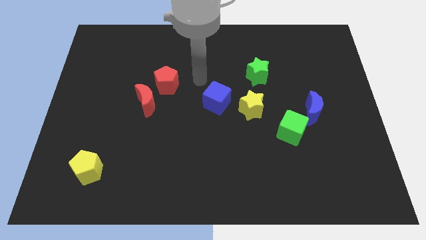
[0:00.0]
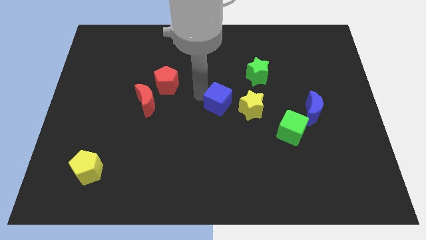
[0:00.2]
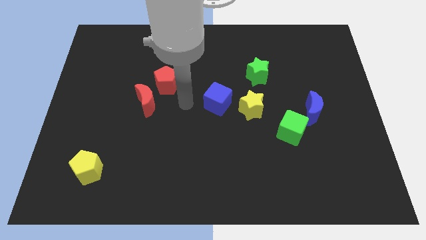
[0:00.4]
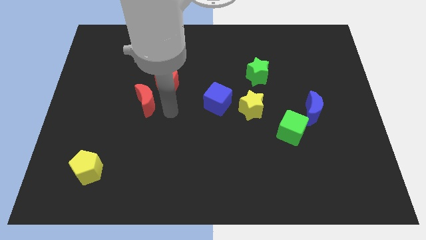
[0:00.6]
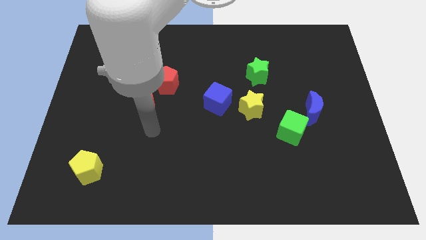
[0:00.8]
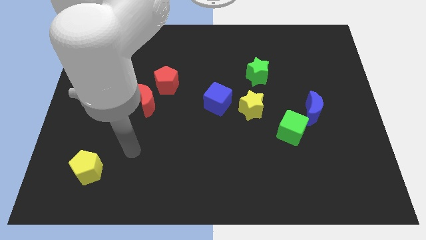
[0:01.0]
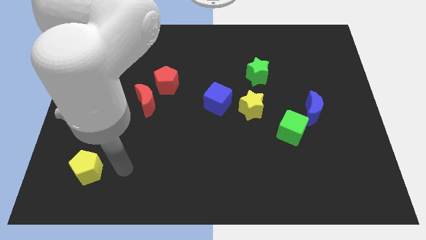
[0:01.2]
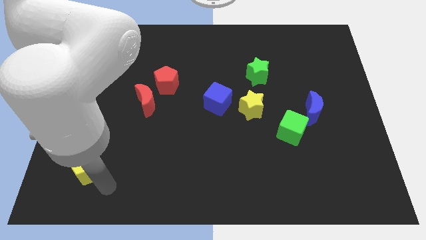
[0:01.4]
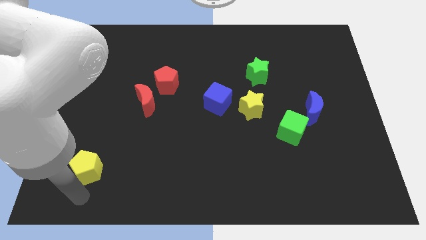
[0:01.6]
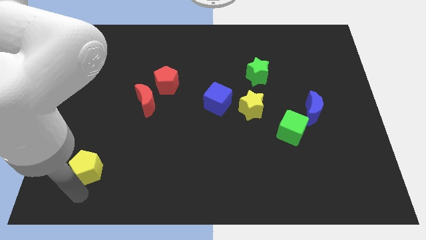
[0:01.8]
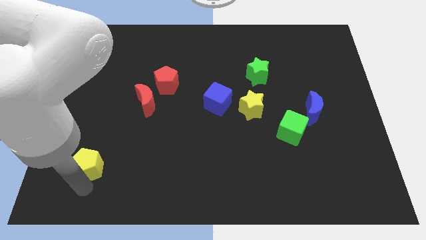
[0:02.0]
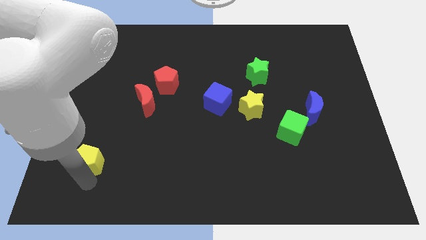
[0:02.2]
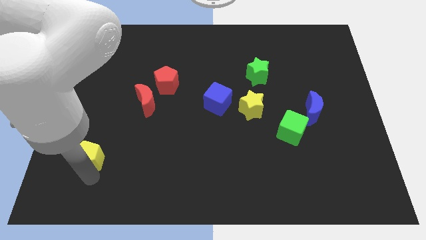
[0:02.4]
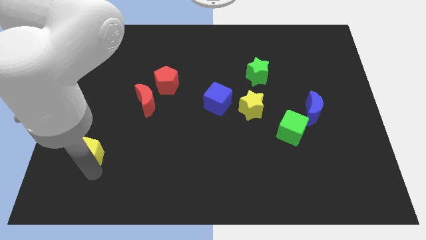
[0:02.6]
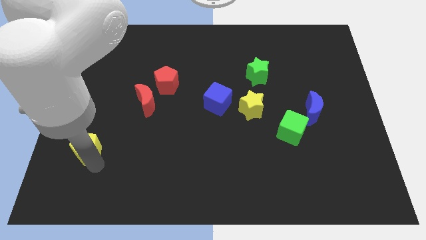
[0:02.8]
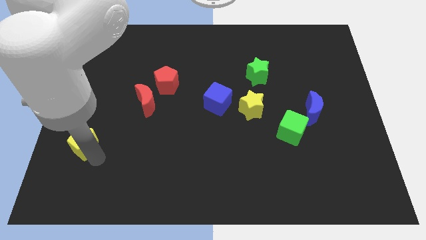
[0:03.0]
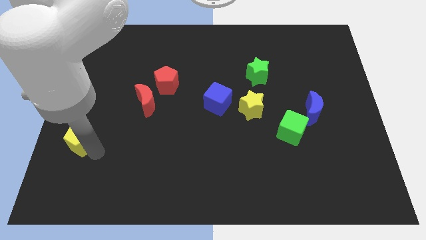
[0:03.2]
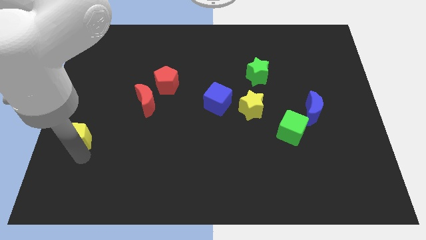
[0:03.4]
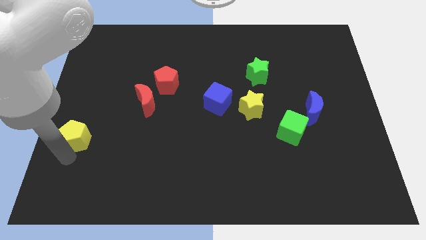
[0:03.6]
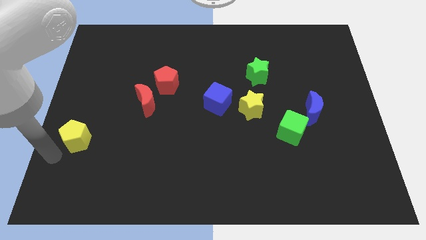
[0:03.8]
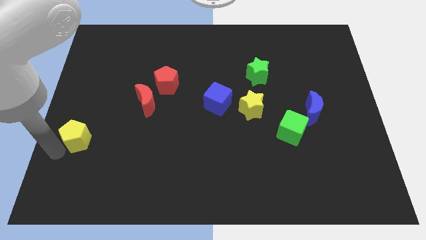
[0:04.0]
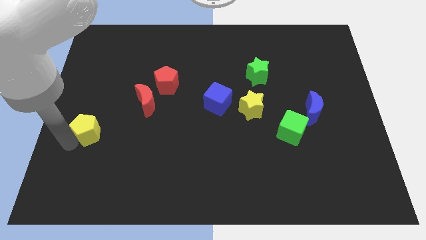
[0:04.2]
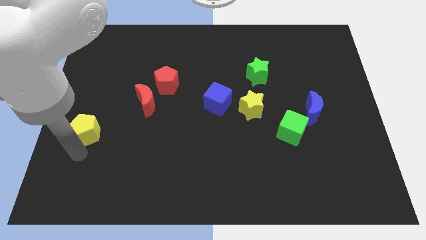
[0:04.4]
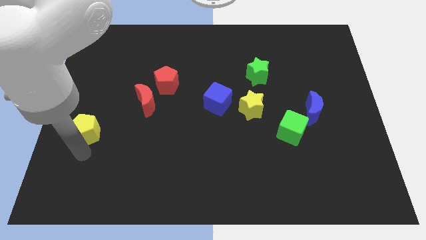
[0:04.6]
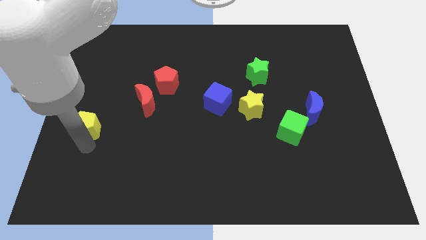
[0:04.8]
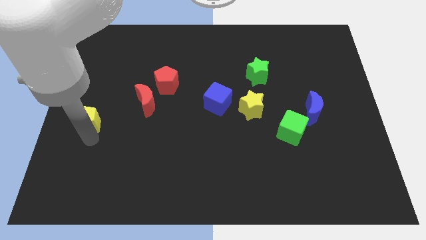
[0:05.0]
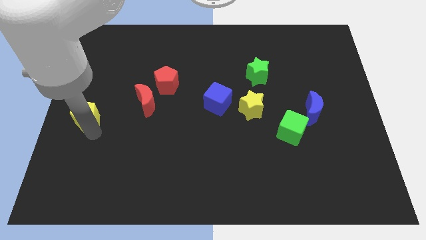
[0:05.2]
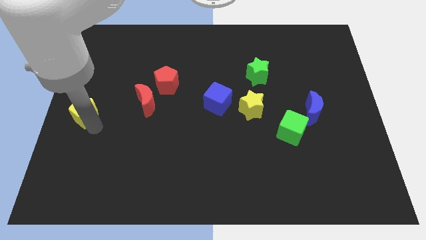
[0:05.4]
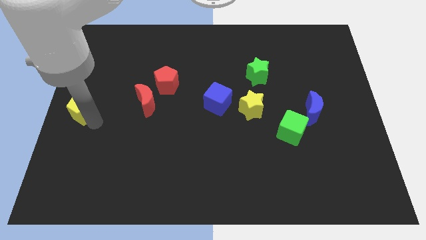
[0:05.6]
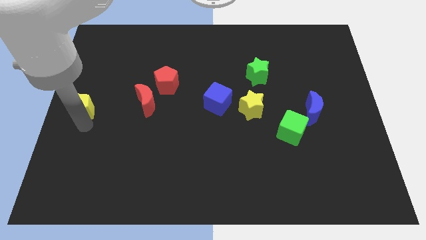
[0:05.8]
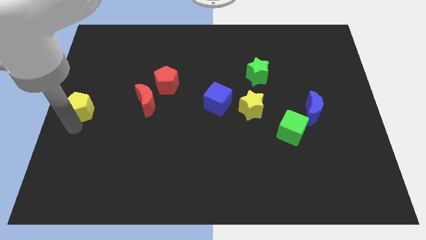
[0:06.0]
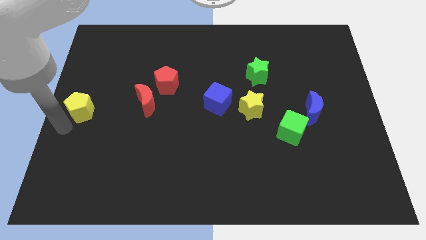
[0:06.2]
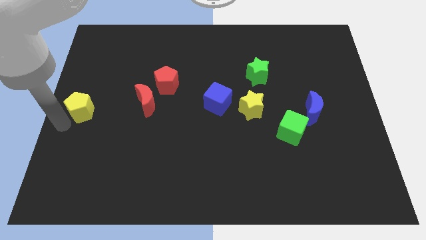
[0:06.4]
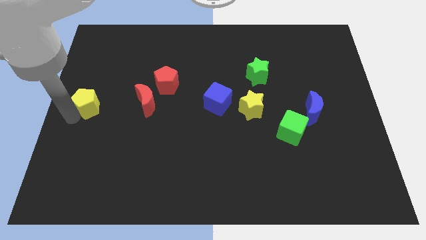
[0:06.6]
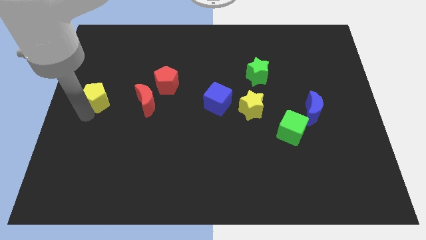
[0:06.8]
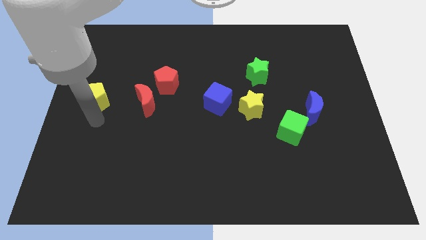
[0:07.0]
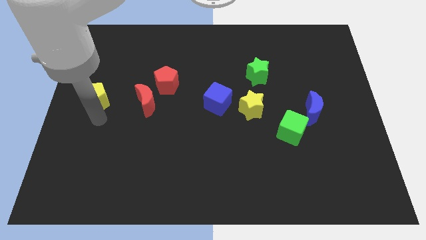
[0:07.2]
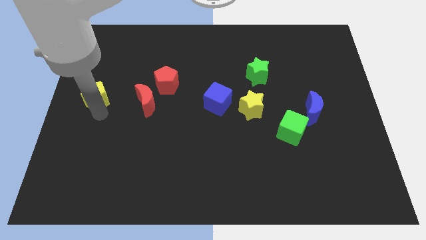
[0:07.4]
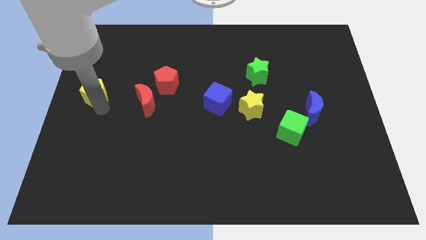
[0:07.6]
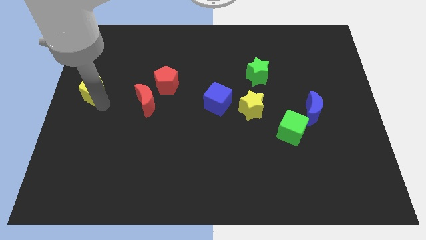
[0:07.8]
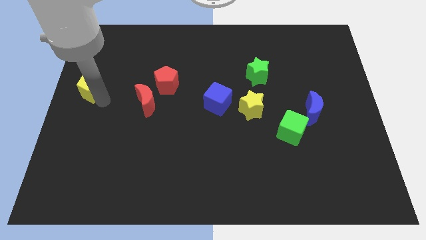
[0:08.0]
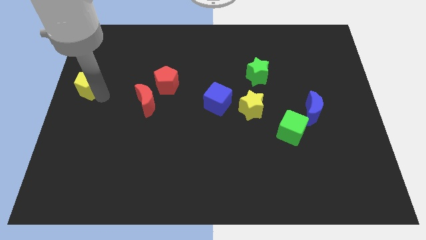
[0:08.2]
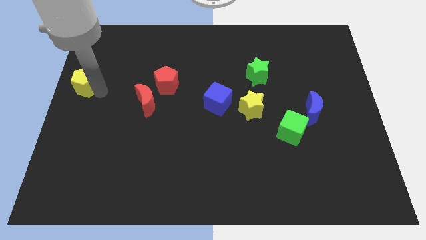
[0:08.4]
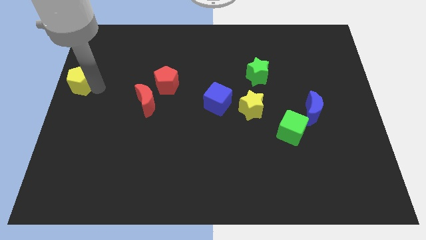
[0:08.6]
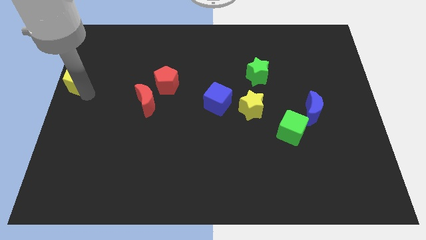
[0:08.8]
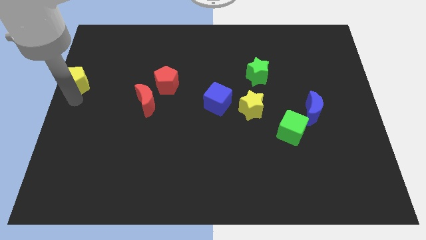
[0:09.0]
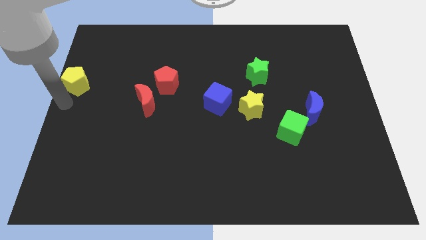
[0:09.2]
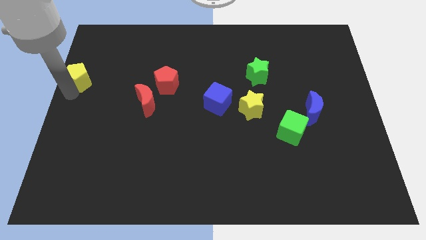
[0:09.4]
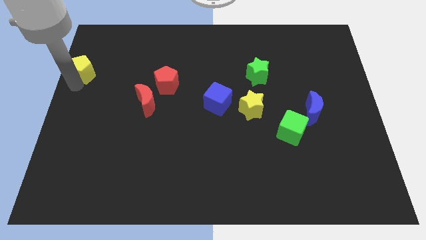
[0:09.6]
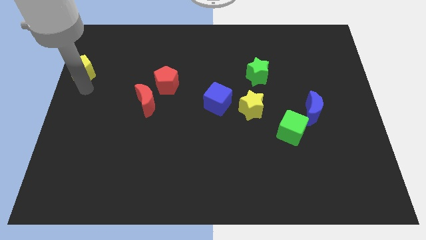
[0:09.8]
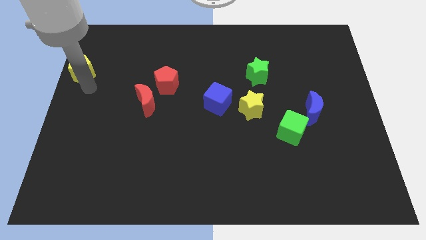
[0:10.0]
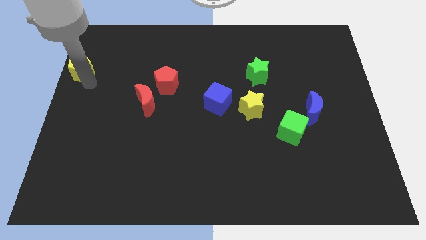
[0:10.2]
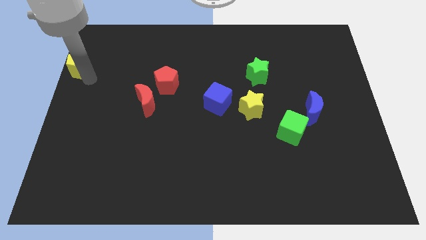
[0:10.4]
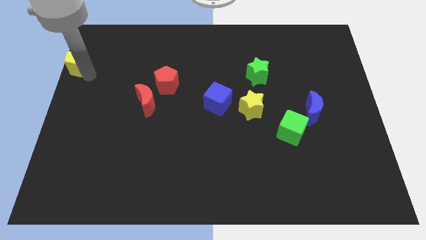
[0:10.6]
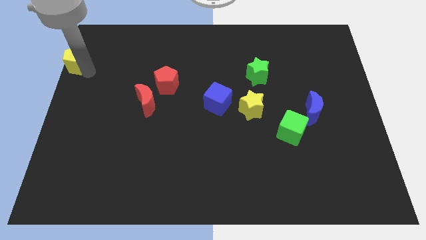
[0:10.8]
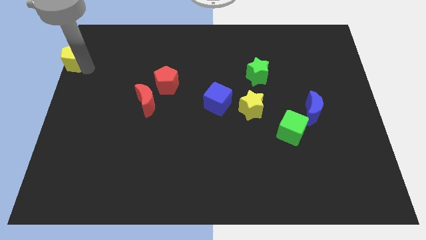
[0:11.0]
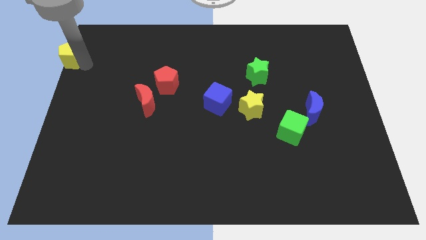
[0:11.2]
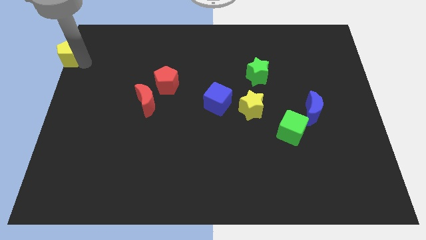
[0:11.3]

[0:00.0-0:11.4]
slide the yellow pentagon to the top left of the board

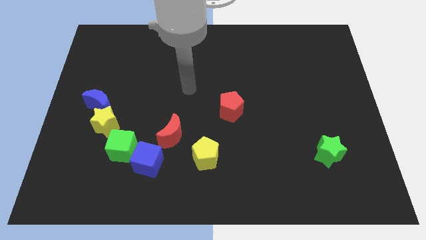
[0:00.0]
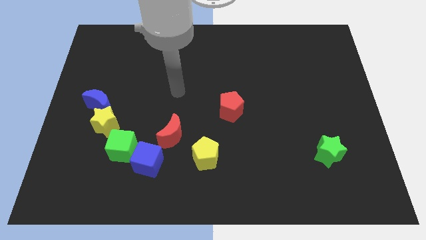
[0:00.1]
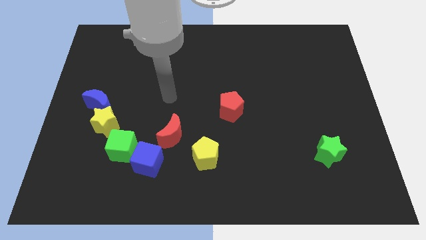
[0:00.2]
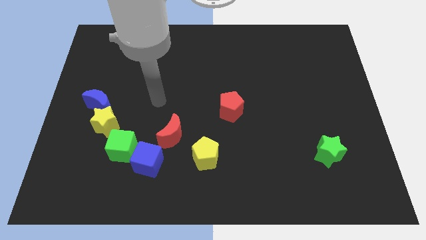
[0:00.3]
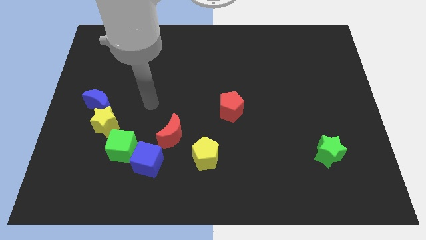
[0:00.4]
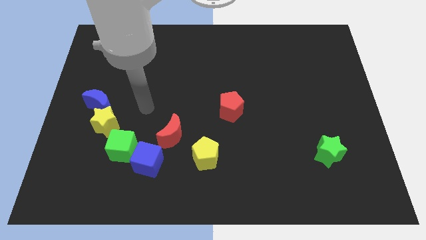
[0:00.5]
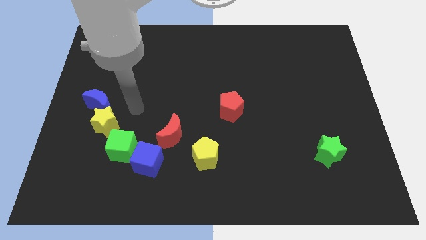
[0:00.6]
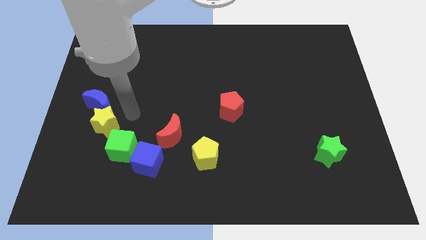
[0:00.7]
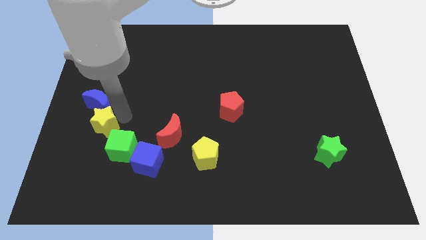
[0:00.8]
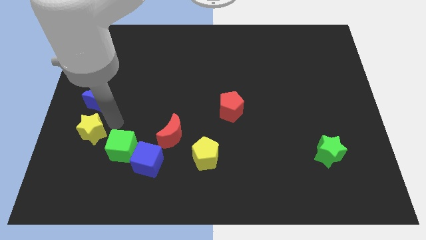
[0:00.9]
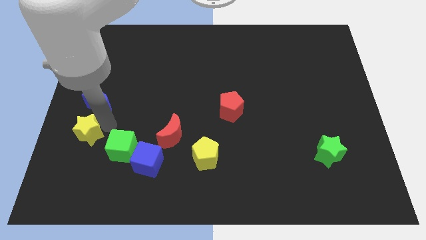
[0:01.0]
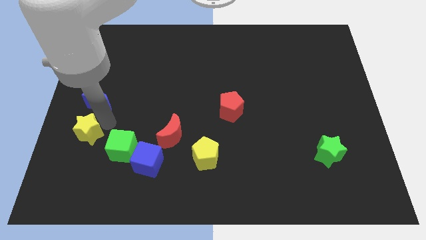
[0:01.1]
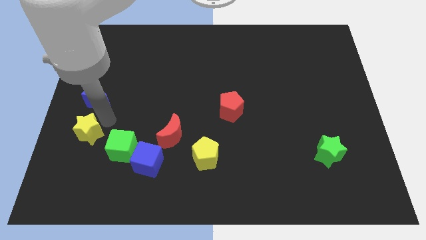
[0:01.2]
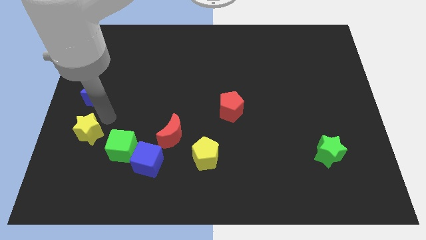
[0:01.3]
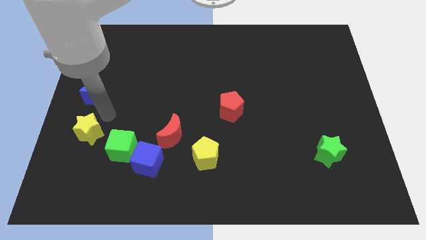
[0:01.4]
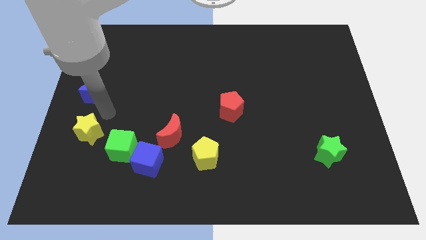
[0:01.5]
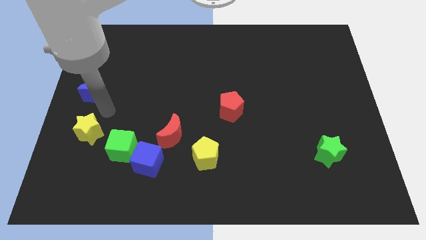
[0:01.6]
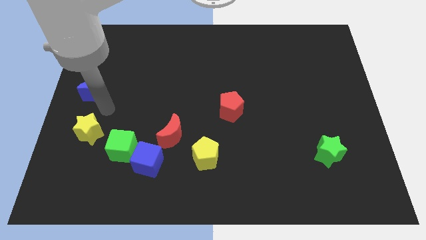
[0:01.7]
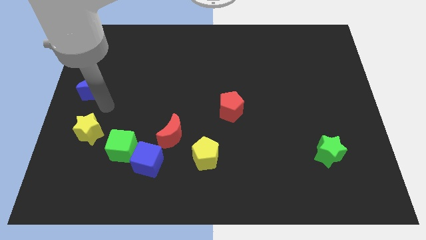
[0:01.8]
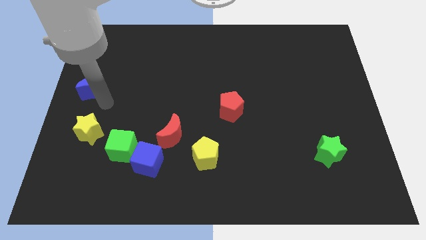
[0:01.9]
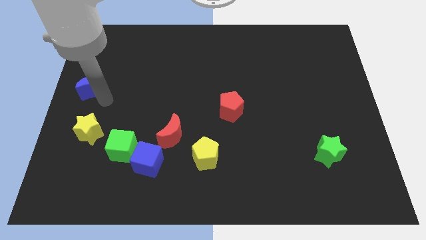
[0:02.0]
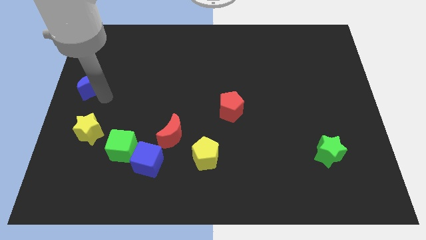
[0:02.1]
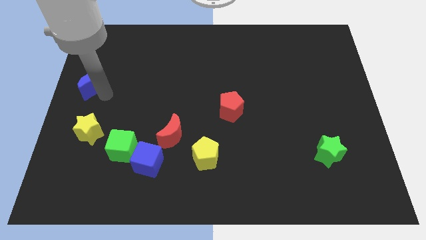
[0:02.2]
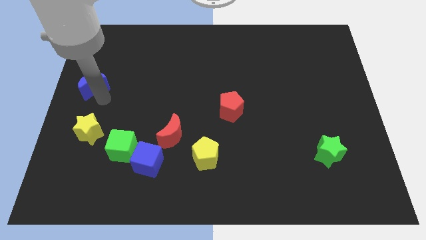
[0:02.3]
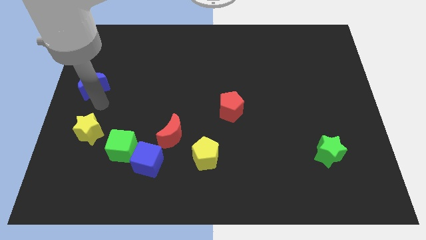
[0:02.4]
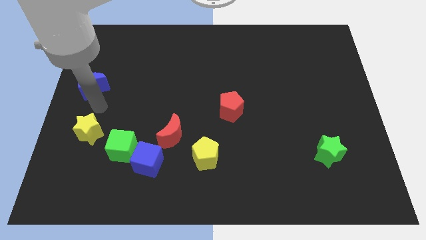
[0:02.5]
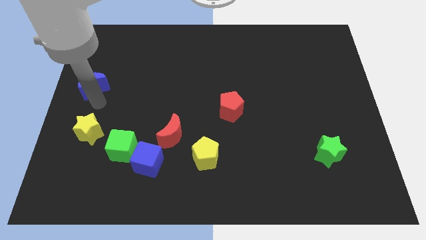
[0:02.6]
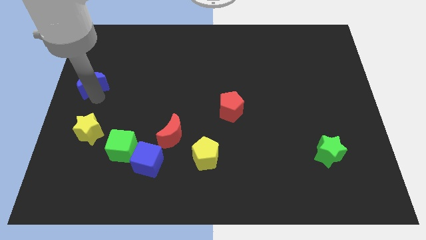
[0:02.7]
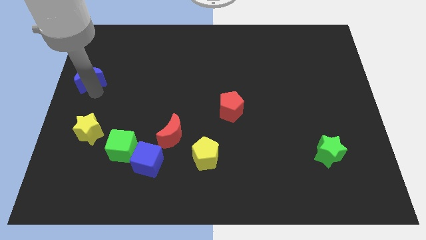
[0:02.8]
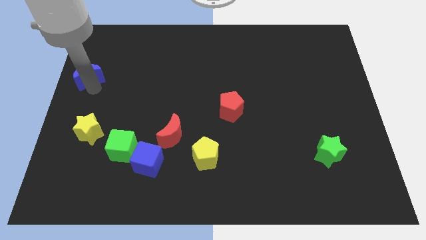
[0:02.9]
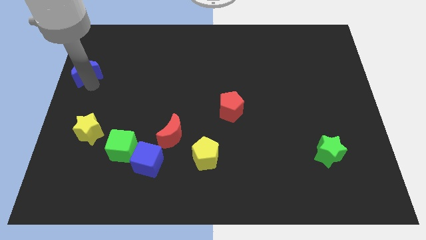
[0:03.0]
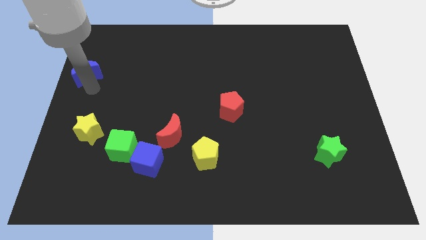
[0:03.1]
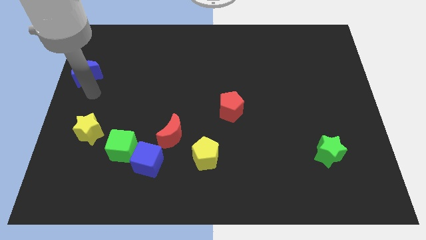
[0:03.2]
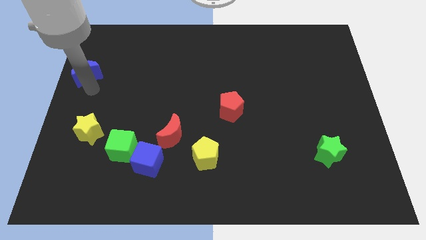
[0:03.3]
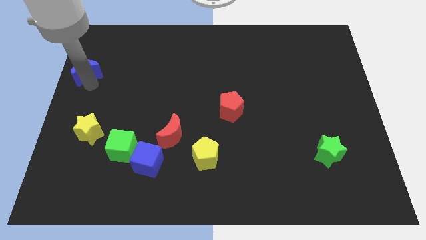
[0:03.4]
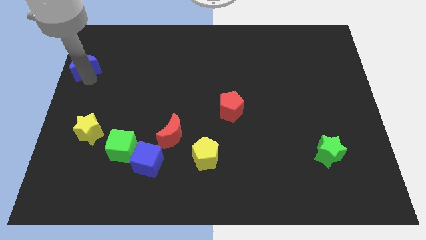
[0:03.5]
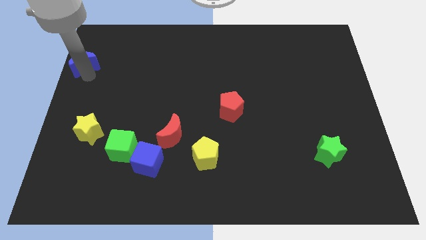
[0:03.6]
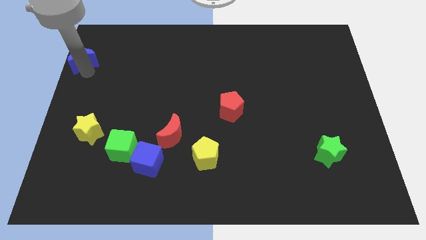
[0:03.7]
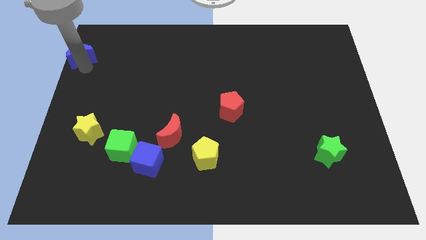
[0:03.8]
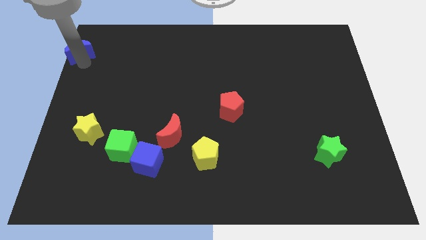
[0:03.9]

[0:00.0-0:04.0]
slide the blue moon to the top left
